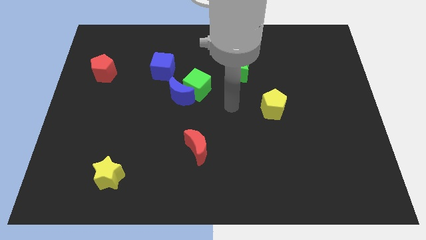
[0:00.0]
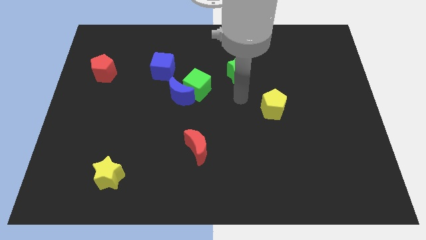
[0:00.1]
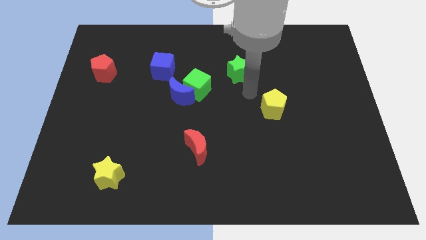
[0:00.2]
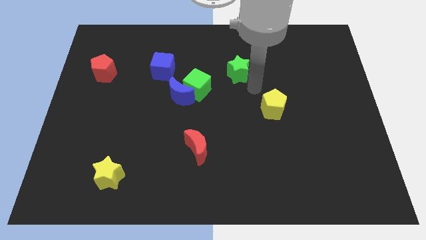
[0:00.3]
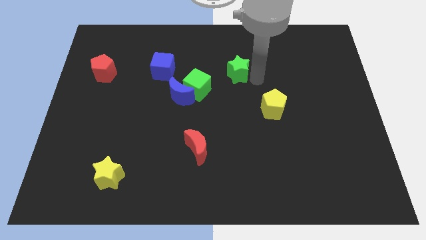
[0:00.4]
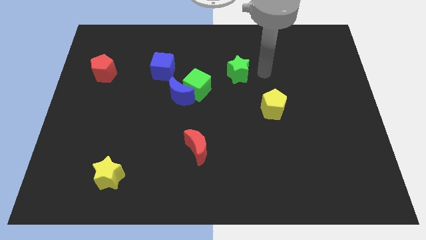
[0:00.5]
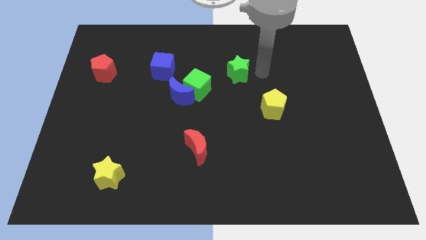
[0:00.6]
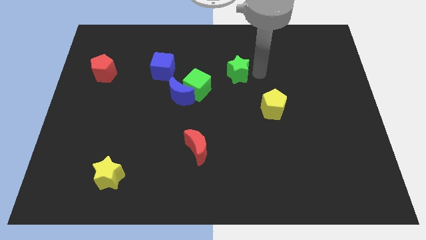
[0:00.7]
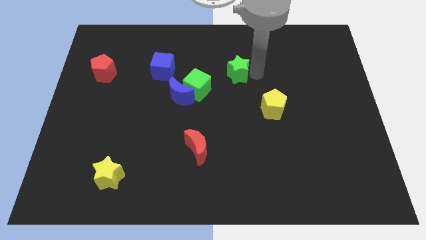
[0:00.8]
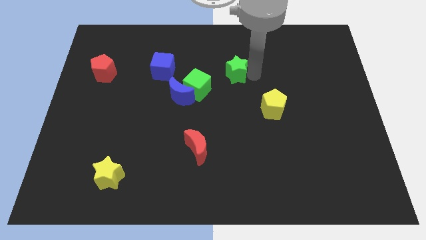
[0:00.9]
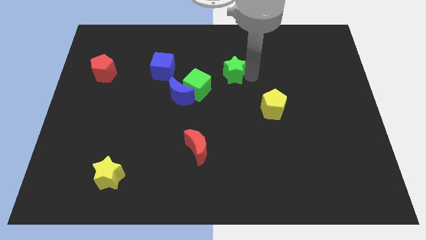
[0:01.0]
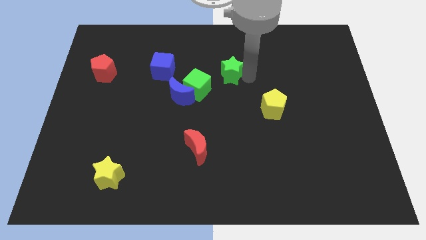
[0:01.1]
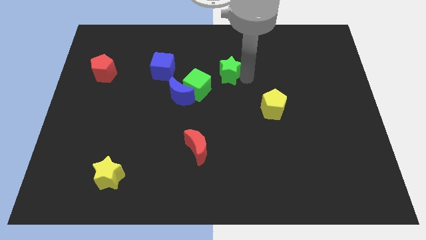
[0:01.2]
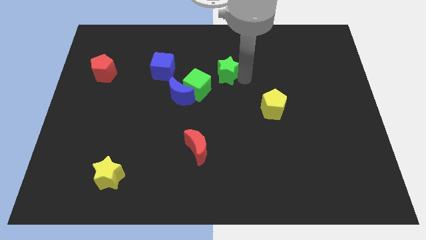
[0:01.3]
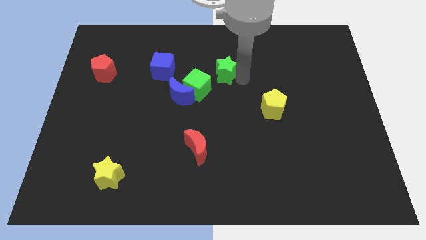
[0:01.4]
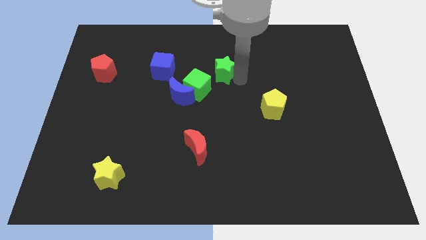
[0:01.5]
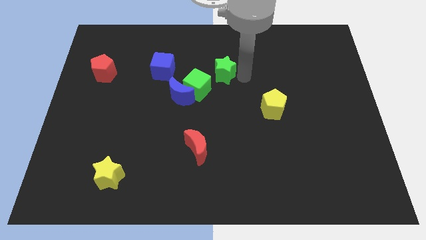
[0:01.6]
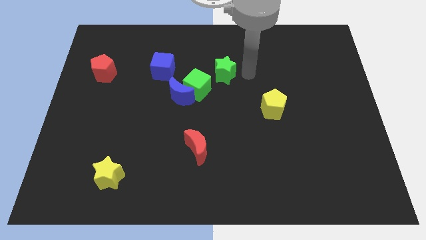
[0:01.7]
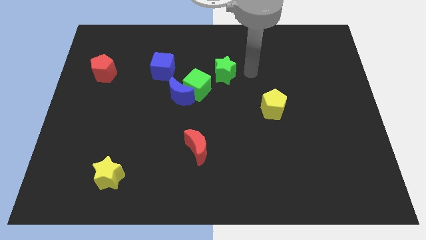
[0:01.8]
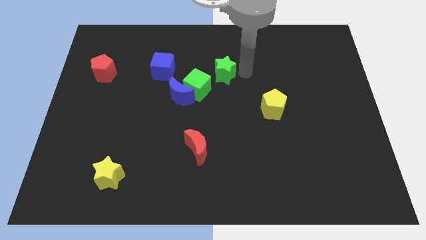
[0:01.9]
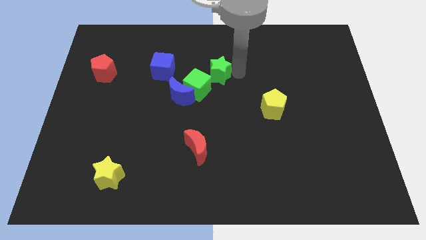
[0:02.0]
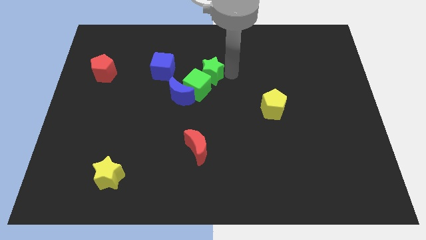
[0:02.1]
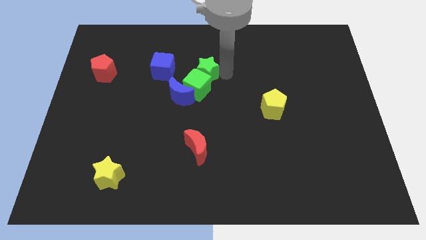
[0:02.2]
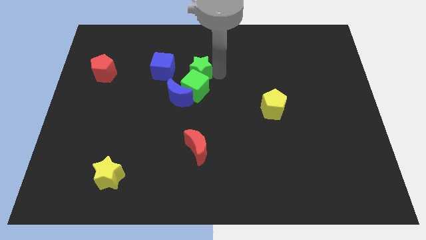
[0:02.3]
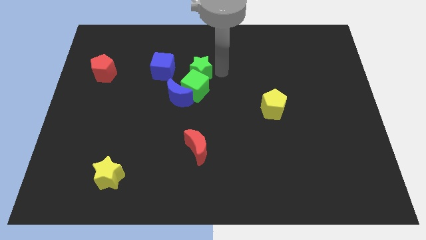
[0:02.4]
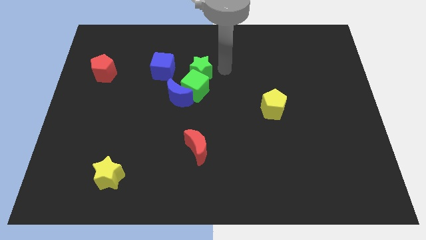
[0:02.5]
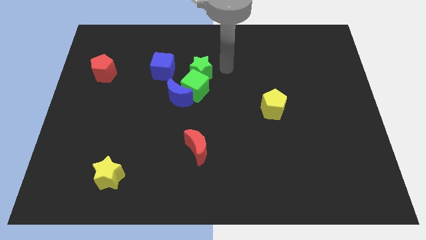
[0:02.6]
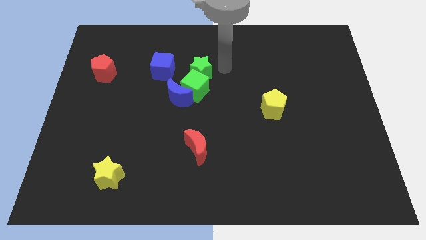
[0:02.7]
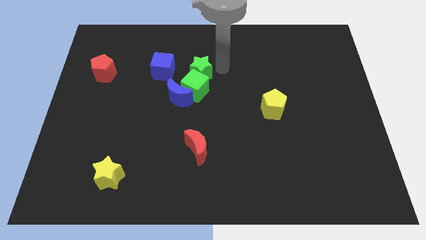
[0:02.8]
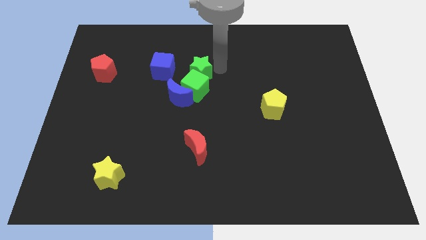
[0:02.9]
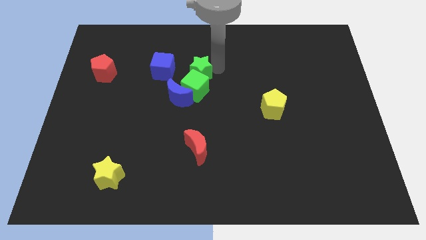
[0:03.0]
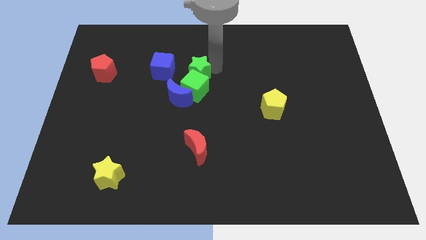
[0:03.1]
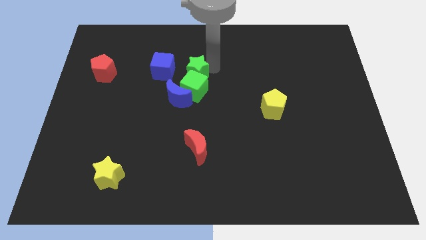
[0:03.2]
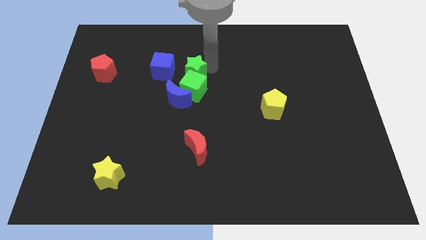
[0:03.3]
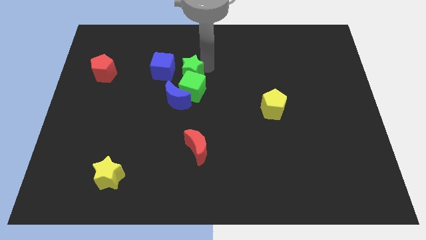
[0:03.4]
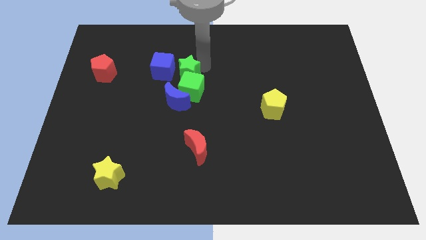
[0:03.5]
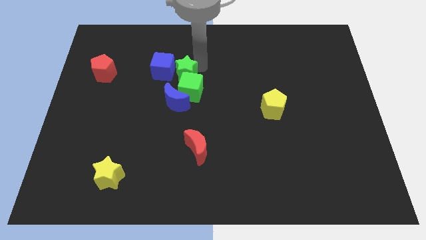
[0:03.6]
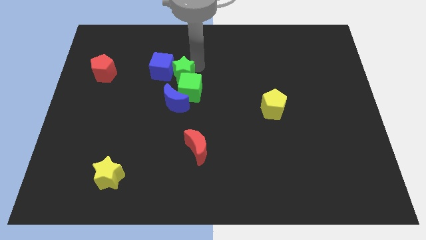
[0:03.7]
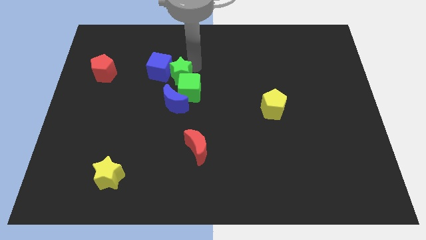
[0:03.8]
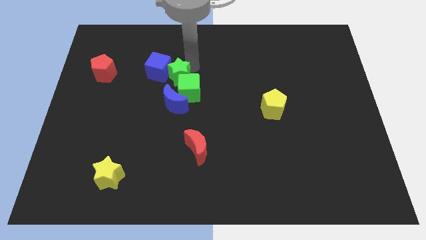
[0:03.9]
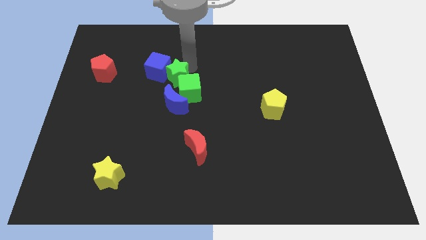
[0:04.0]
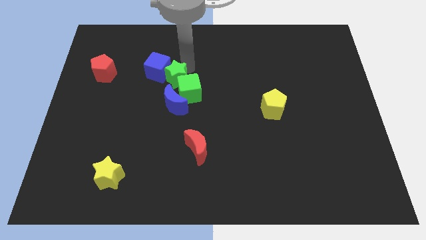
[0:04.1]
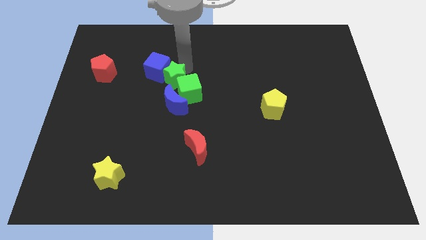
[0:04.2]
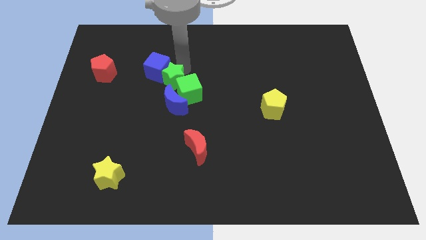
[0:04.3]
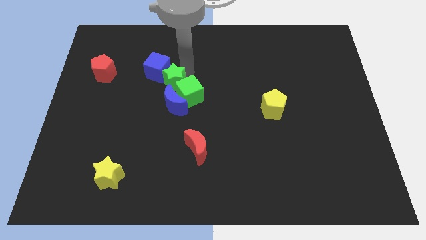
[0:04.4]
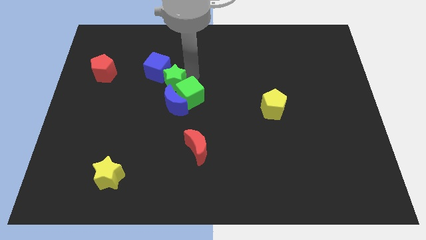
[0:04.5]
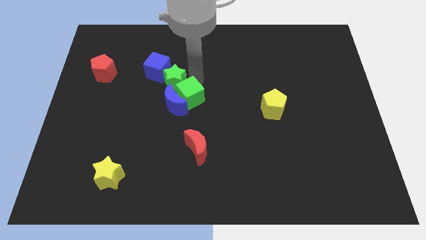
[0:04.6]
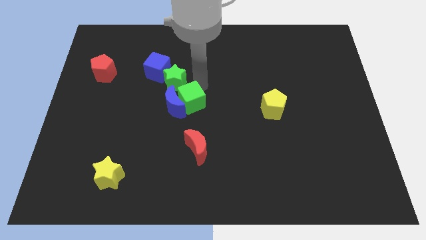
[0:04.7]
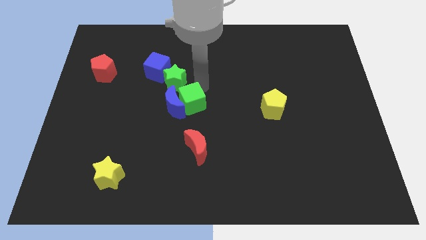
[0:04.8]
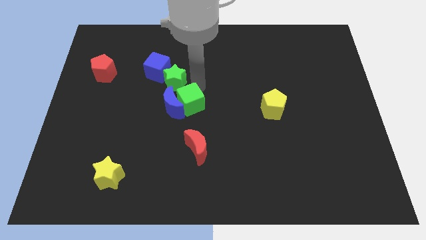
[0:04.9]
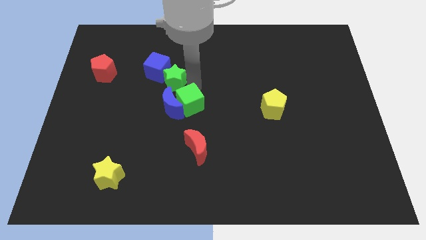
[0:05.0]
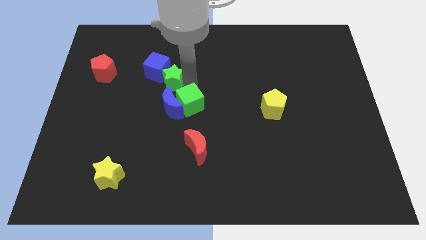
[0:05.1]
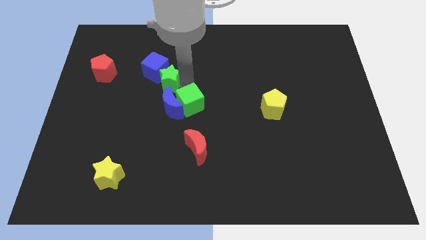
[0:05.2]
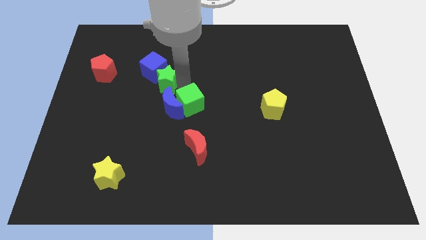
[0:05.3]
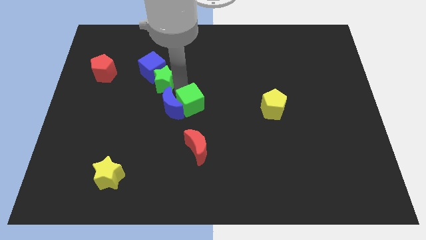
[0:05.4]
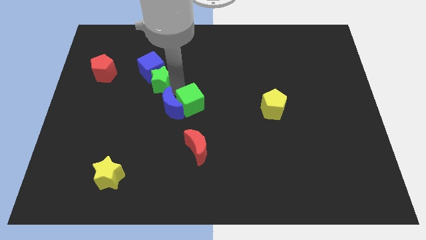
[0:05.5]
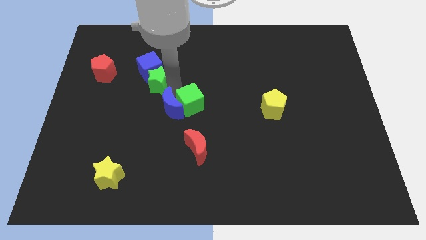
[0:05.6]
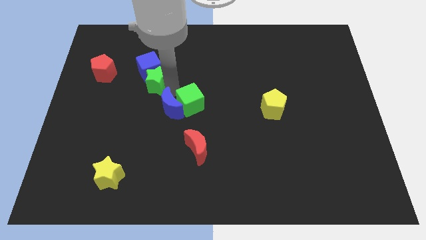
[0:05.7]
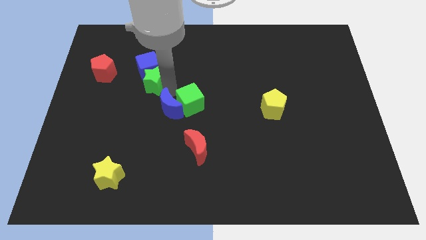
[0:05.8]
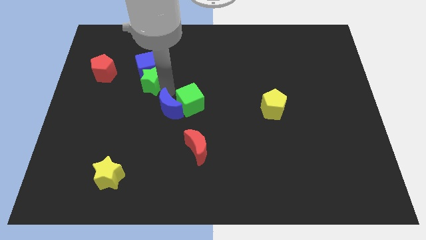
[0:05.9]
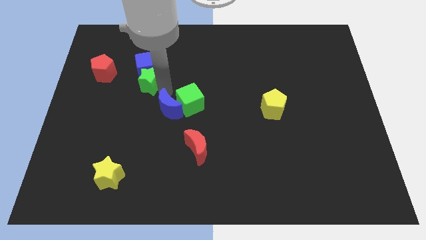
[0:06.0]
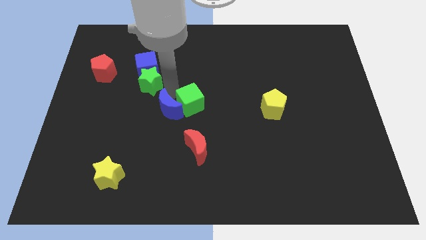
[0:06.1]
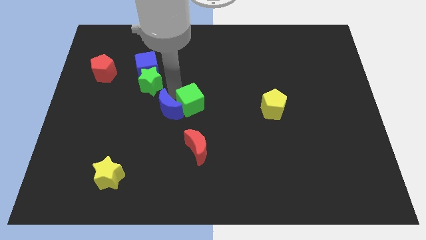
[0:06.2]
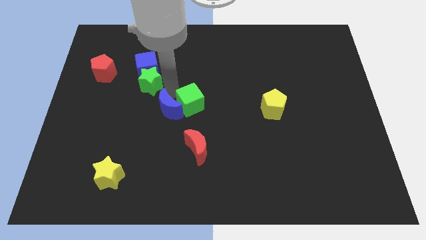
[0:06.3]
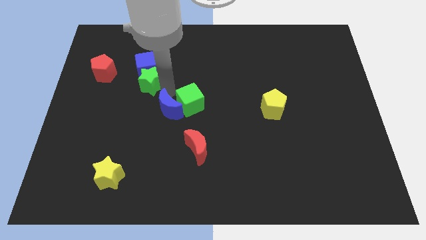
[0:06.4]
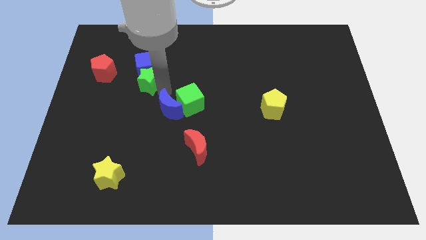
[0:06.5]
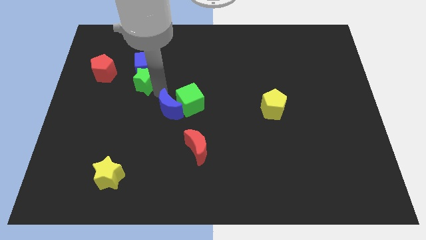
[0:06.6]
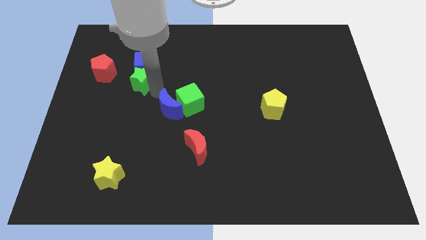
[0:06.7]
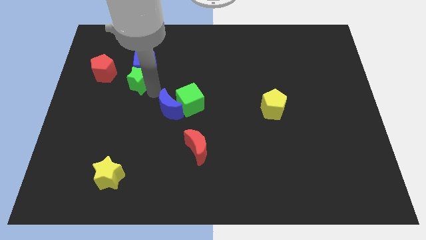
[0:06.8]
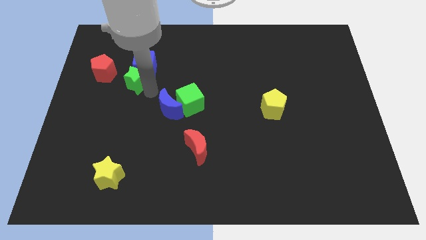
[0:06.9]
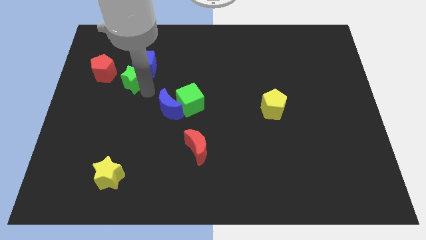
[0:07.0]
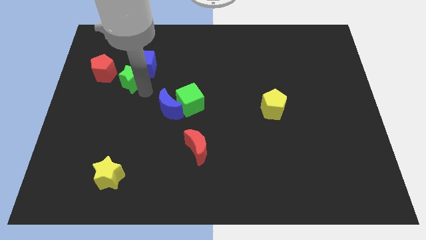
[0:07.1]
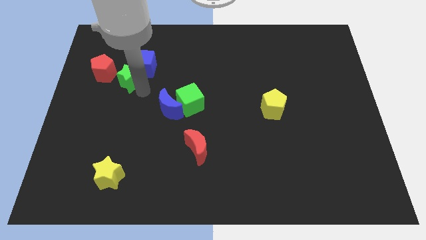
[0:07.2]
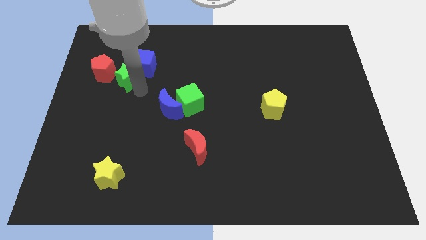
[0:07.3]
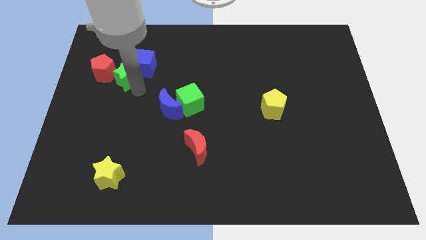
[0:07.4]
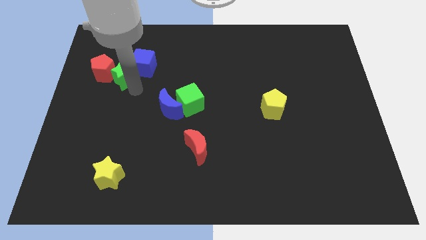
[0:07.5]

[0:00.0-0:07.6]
slide the green star next to the red pentagon
